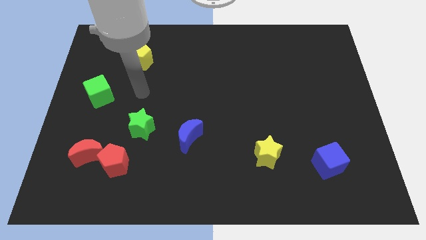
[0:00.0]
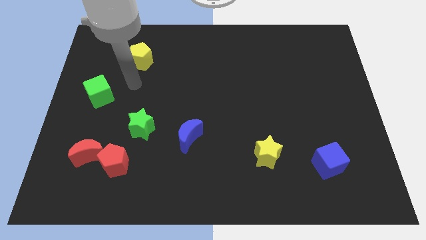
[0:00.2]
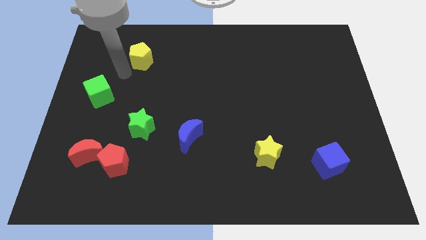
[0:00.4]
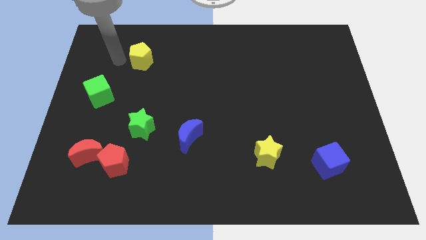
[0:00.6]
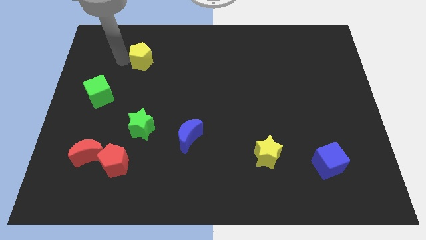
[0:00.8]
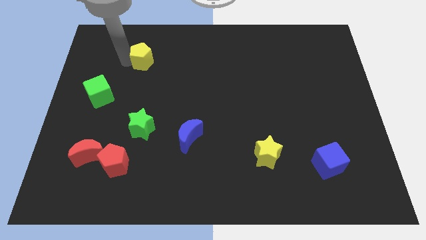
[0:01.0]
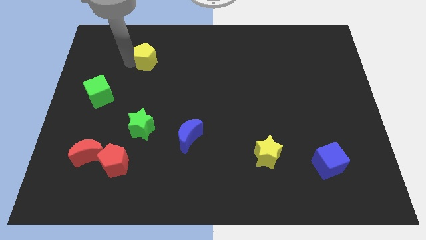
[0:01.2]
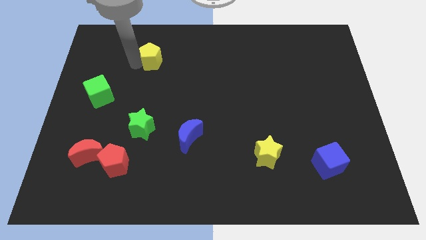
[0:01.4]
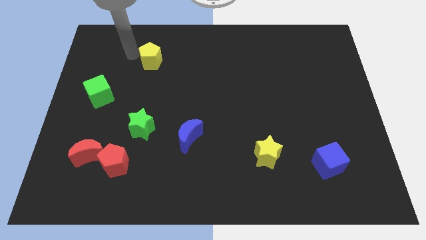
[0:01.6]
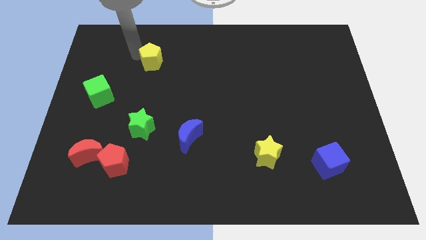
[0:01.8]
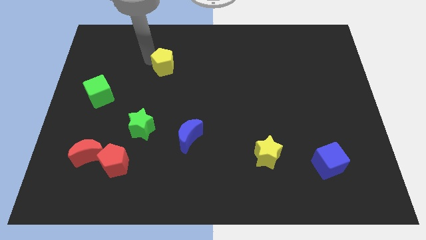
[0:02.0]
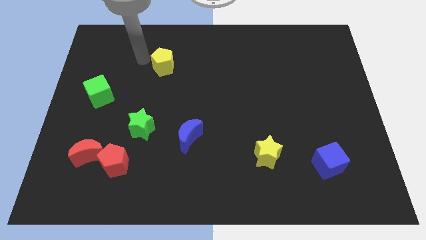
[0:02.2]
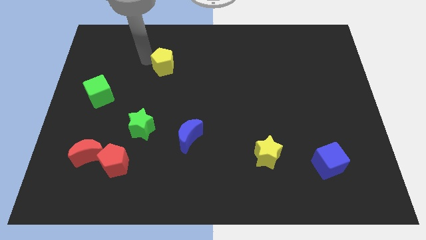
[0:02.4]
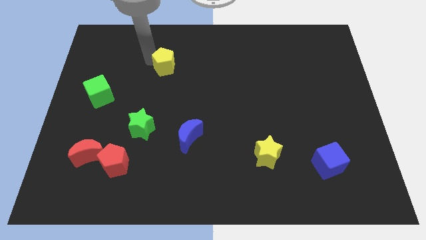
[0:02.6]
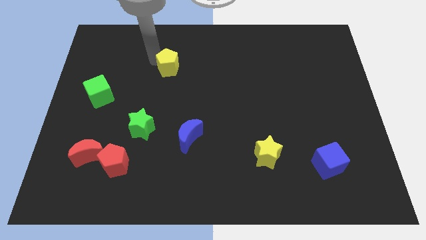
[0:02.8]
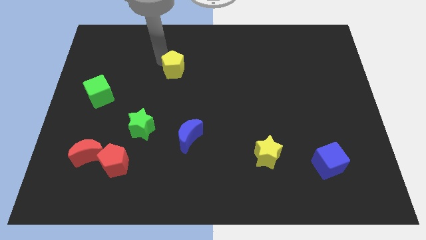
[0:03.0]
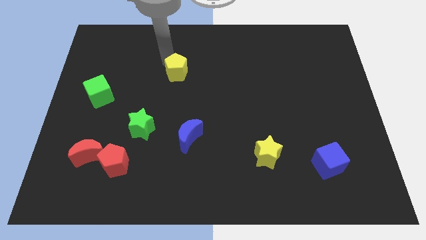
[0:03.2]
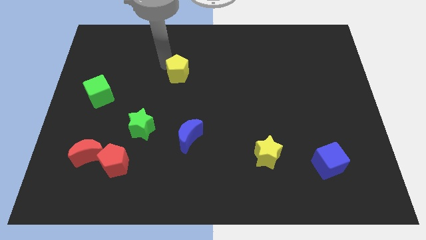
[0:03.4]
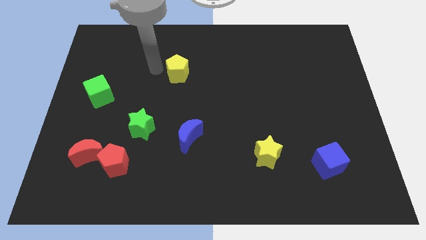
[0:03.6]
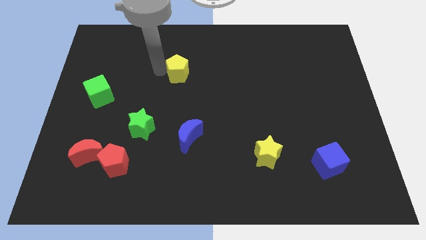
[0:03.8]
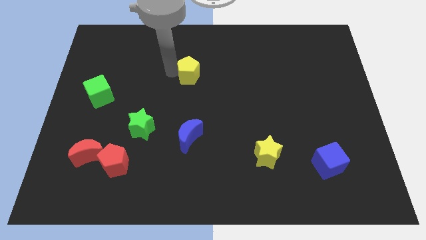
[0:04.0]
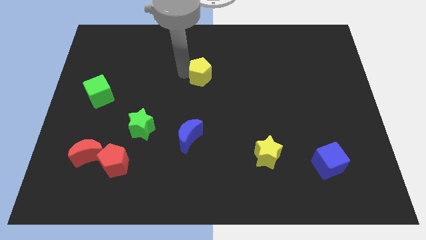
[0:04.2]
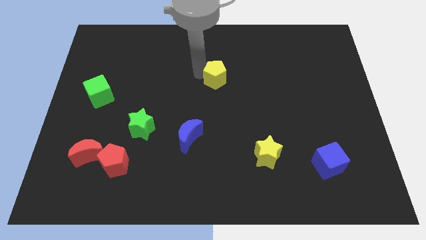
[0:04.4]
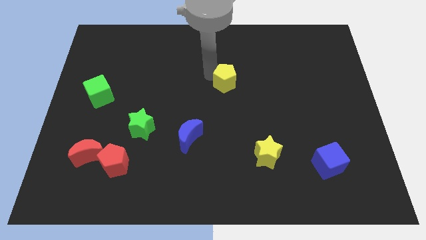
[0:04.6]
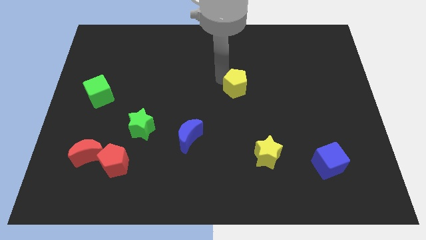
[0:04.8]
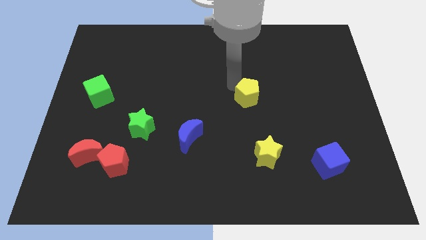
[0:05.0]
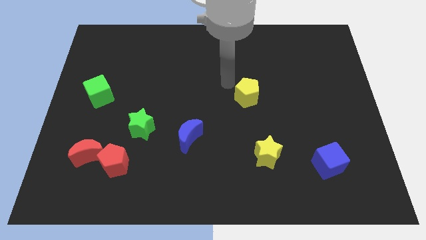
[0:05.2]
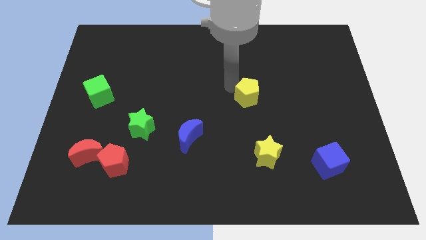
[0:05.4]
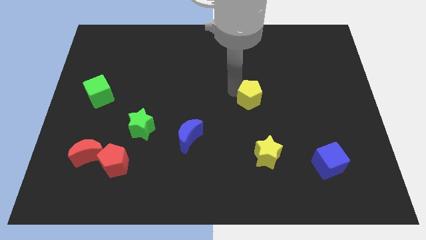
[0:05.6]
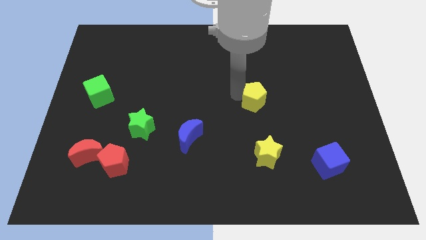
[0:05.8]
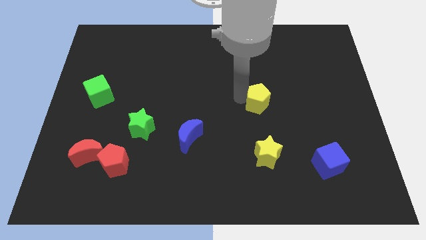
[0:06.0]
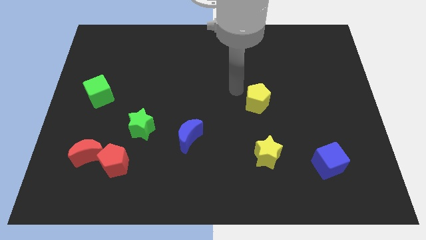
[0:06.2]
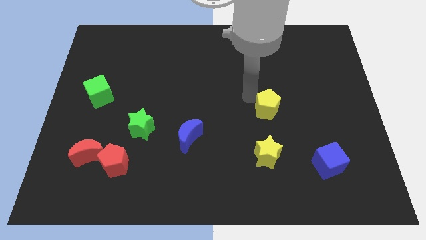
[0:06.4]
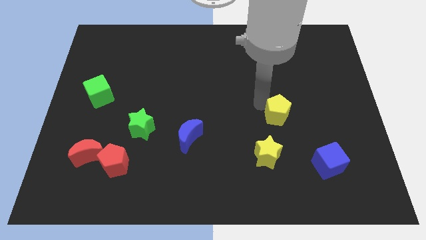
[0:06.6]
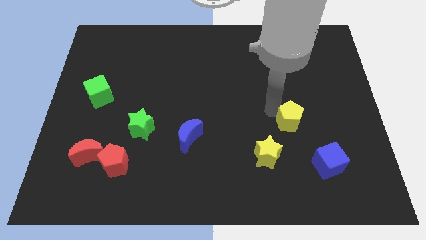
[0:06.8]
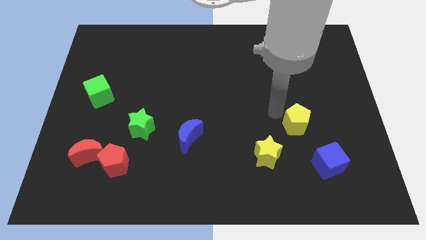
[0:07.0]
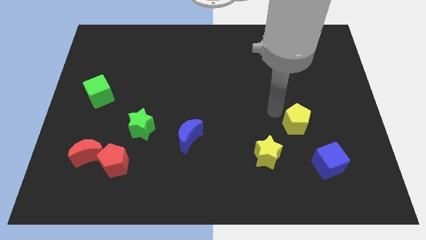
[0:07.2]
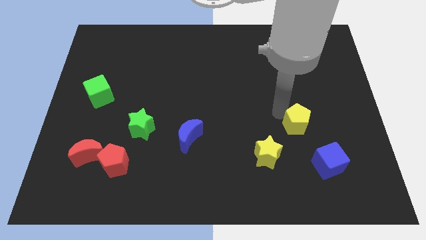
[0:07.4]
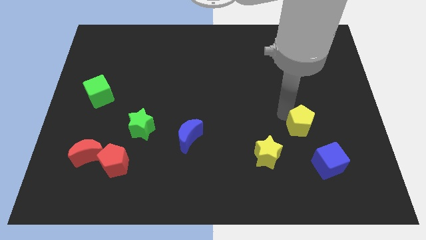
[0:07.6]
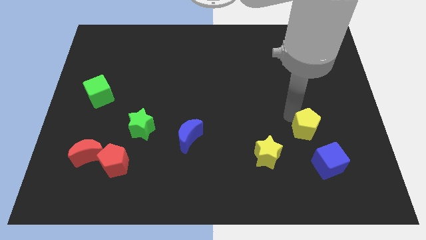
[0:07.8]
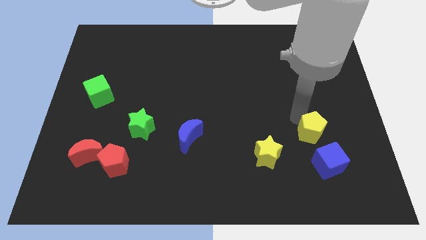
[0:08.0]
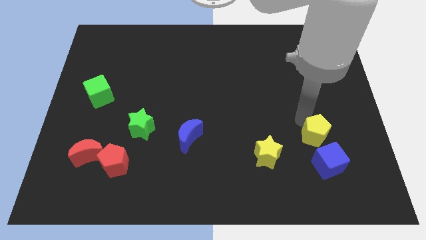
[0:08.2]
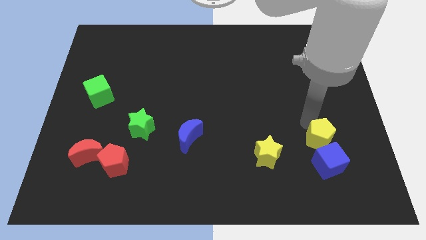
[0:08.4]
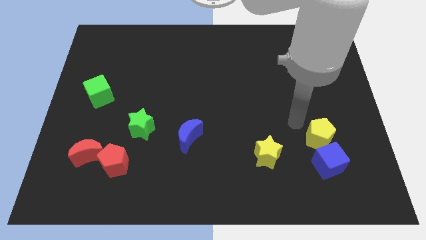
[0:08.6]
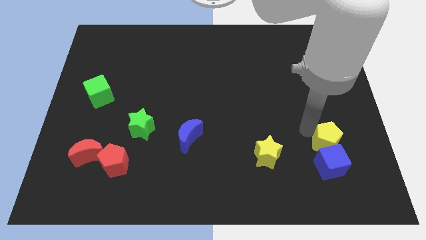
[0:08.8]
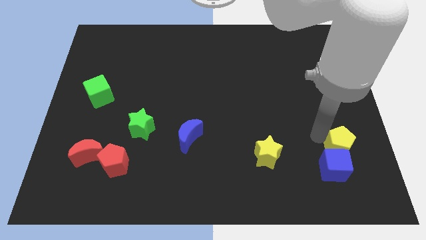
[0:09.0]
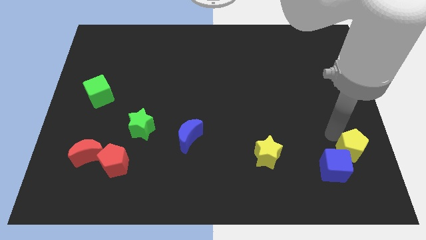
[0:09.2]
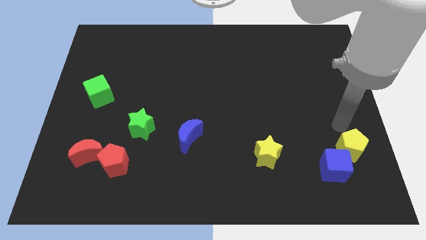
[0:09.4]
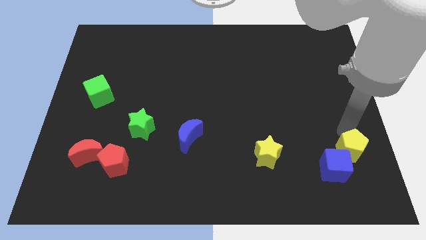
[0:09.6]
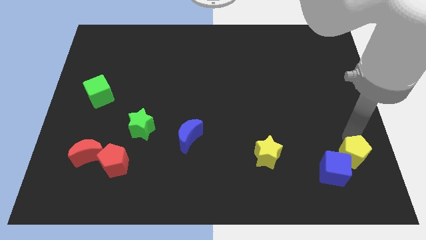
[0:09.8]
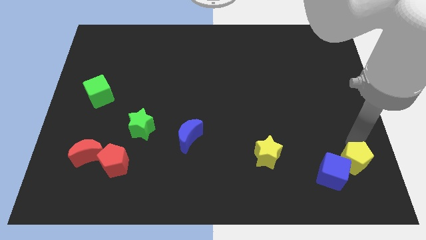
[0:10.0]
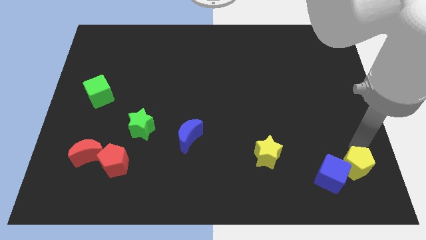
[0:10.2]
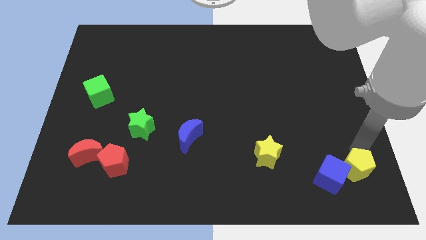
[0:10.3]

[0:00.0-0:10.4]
move the yellow pentagon to the lower right corner

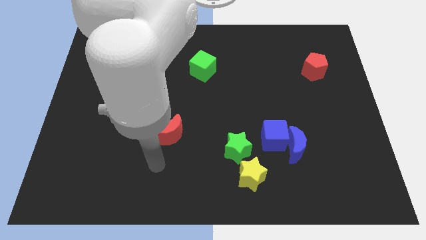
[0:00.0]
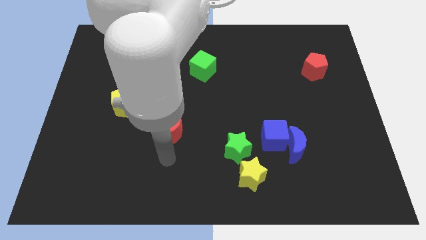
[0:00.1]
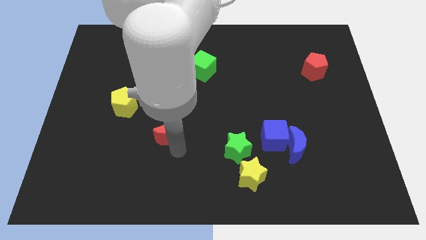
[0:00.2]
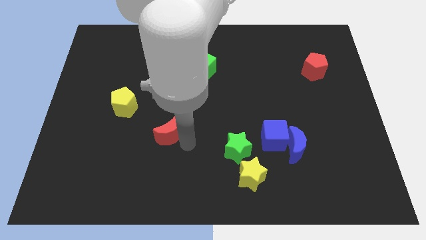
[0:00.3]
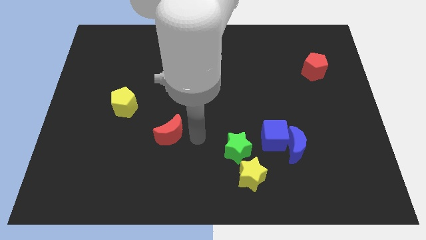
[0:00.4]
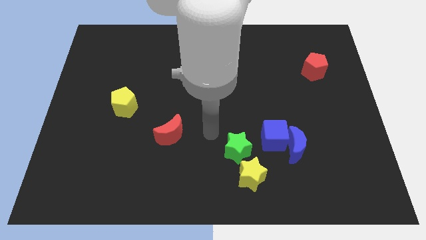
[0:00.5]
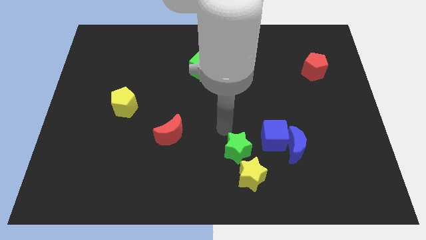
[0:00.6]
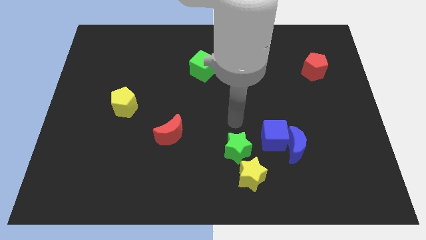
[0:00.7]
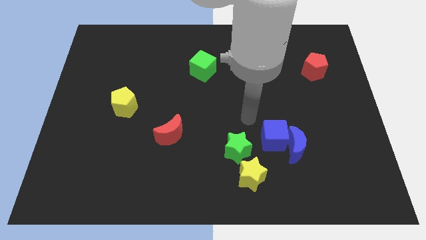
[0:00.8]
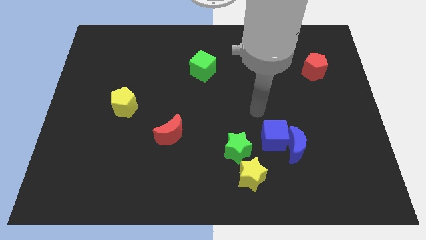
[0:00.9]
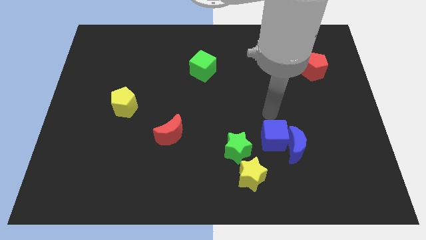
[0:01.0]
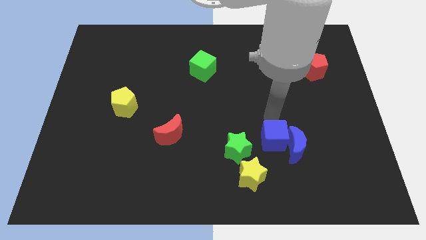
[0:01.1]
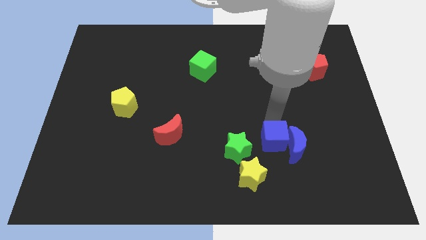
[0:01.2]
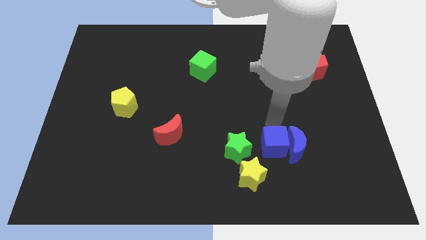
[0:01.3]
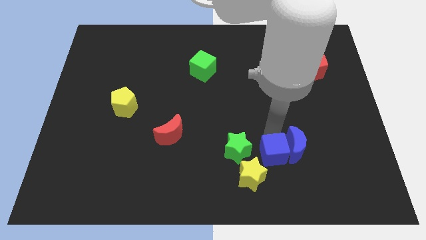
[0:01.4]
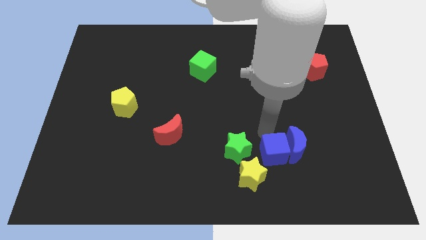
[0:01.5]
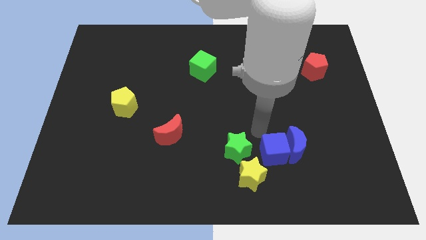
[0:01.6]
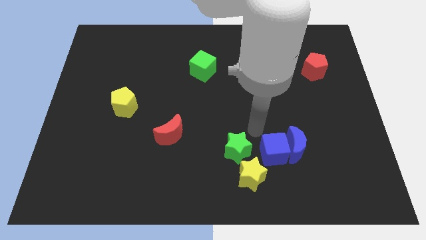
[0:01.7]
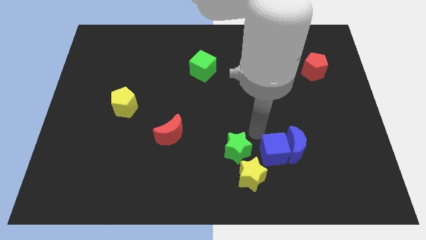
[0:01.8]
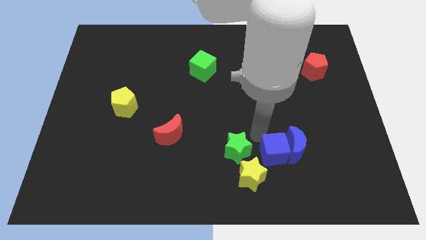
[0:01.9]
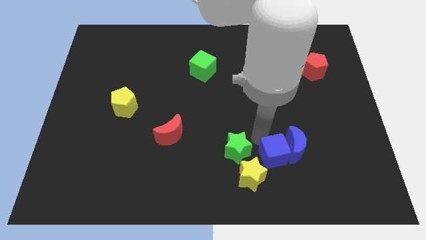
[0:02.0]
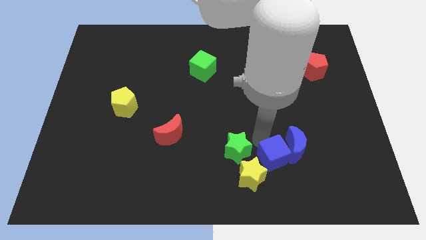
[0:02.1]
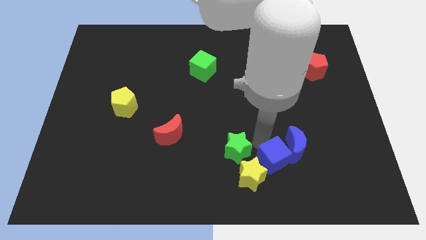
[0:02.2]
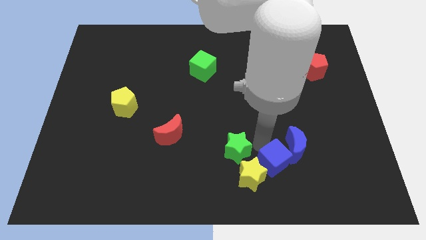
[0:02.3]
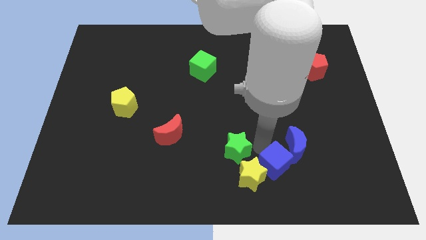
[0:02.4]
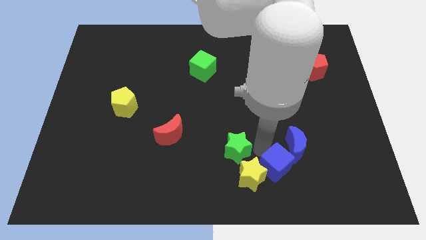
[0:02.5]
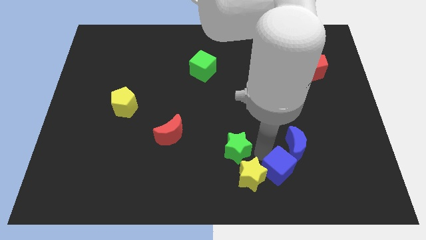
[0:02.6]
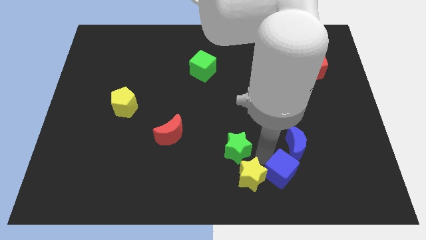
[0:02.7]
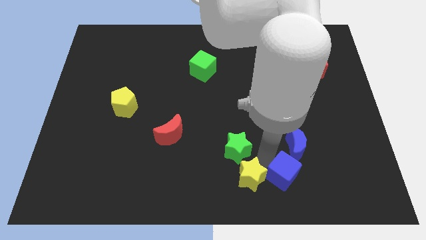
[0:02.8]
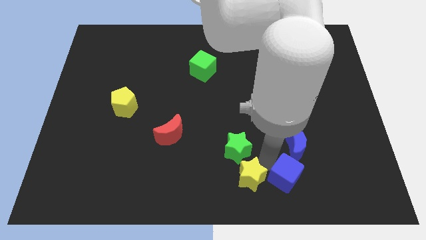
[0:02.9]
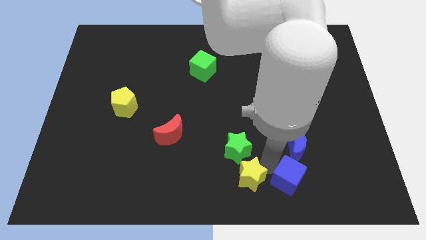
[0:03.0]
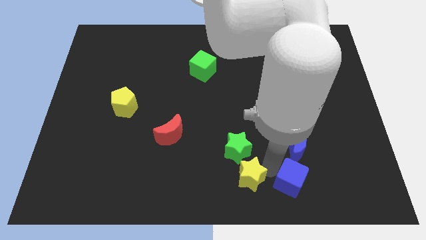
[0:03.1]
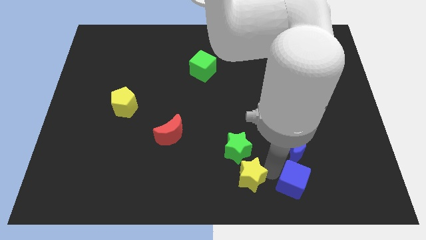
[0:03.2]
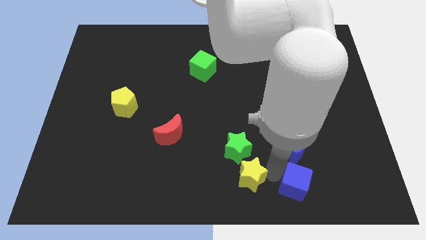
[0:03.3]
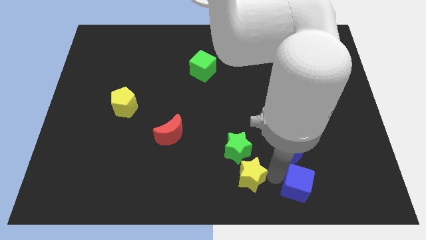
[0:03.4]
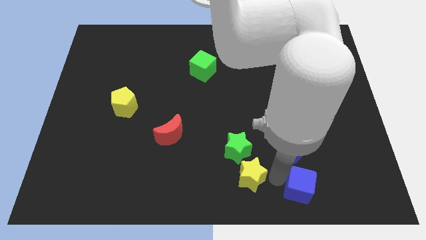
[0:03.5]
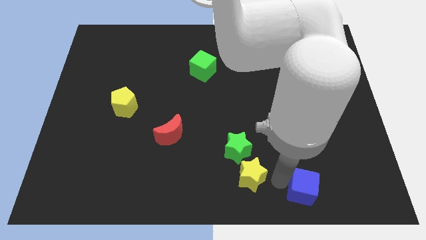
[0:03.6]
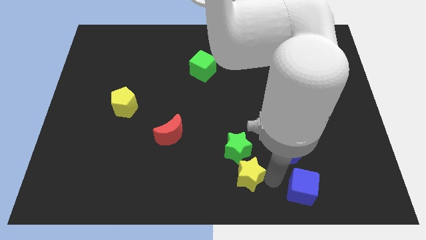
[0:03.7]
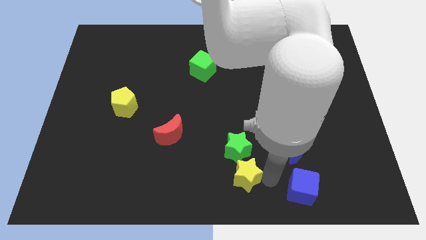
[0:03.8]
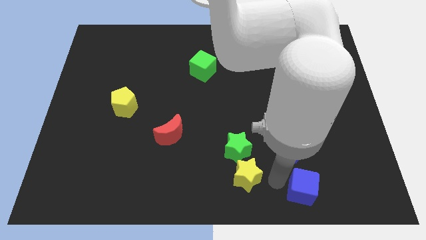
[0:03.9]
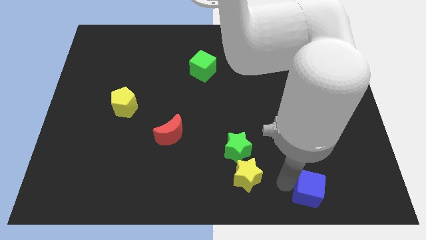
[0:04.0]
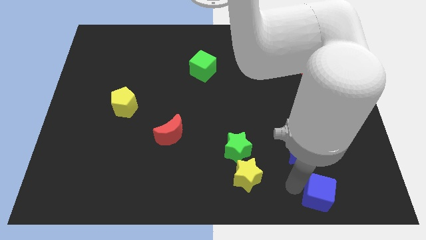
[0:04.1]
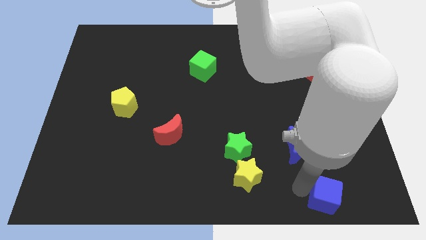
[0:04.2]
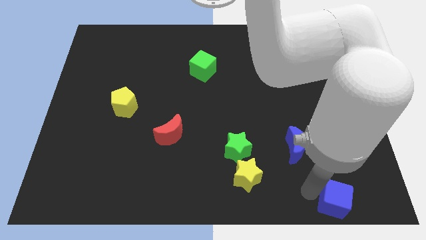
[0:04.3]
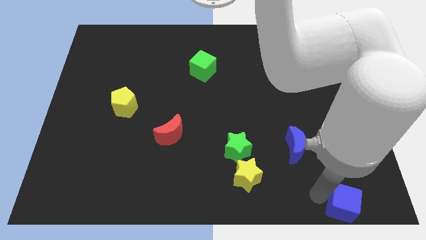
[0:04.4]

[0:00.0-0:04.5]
slide the blue cube to the bottom right
